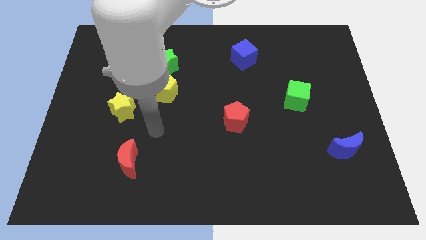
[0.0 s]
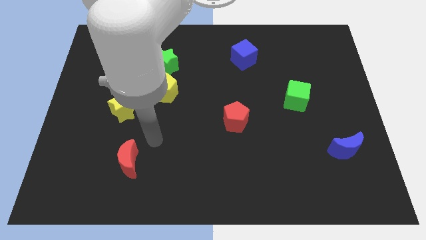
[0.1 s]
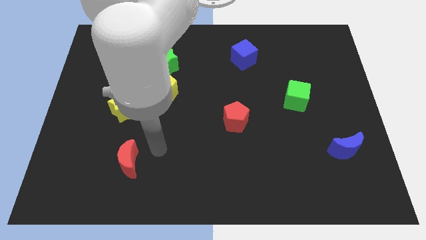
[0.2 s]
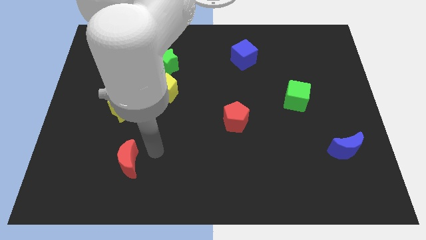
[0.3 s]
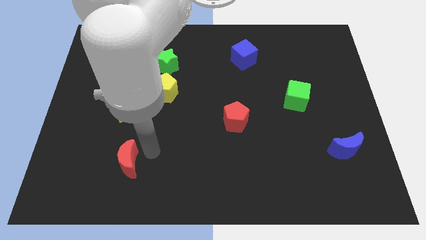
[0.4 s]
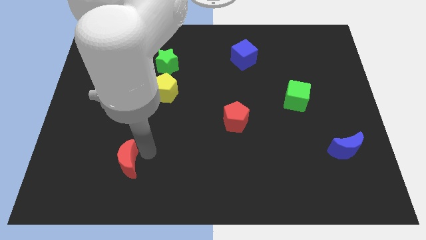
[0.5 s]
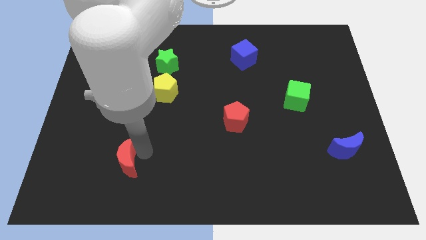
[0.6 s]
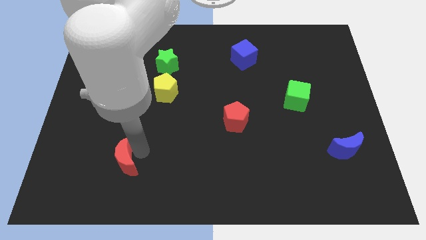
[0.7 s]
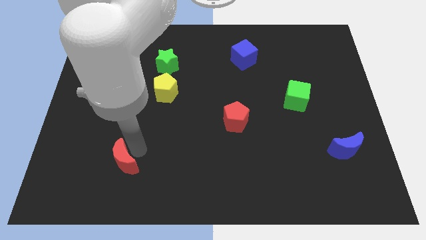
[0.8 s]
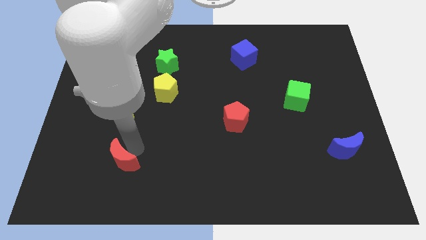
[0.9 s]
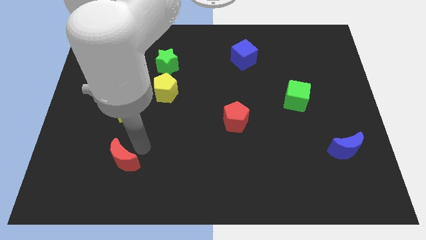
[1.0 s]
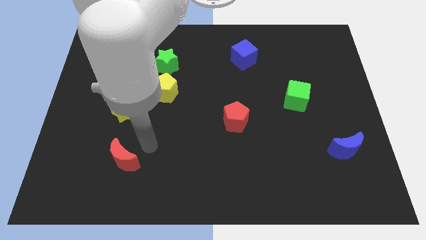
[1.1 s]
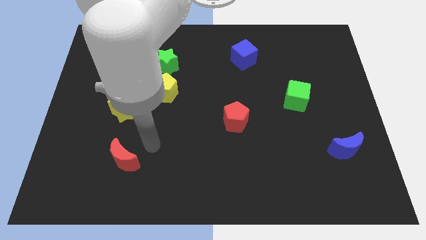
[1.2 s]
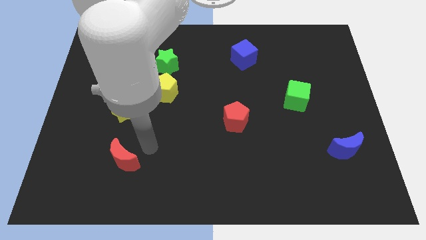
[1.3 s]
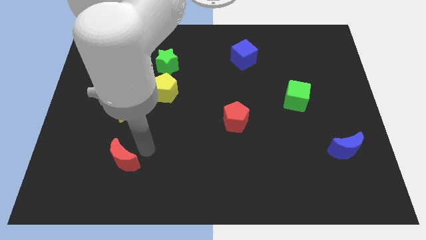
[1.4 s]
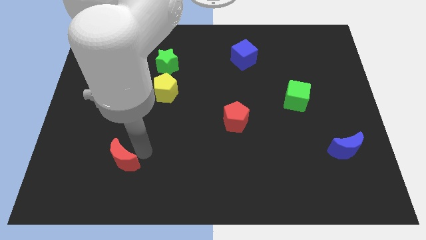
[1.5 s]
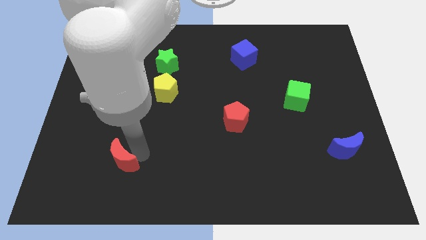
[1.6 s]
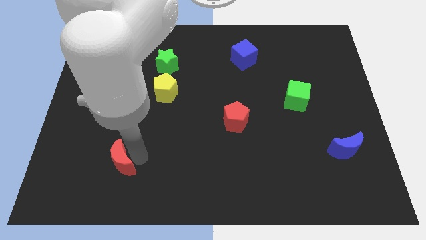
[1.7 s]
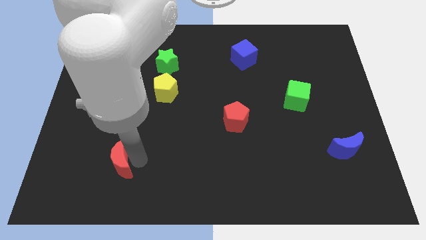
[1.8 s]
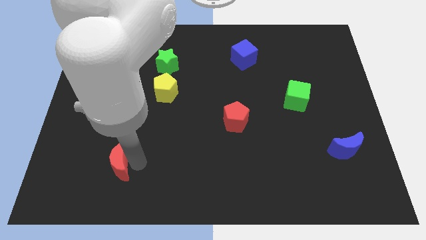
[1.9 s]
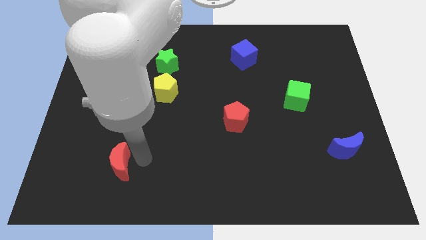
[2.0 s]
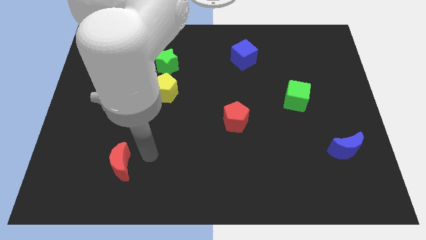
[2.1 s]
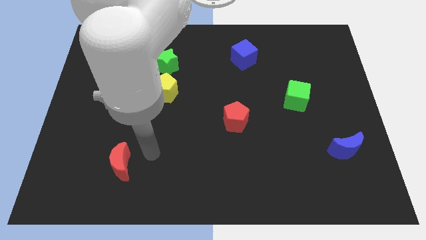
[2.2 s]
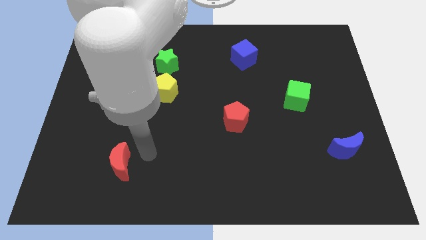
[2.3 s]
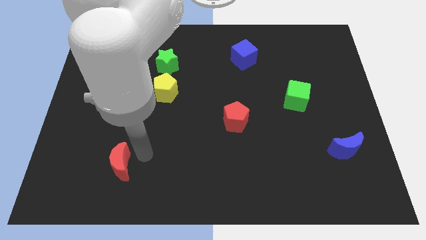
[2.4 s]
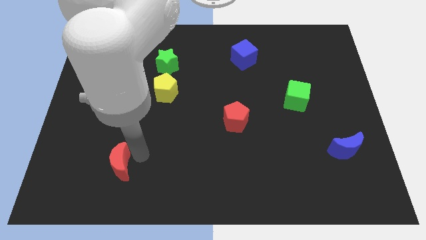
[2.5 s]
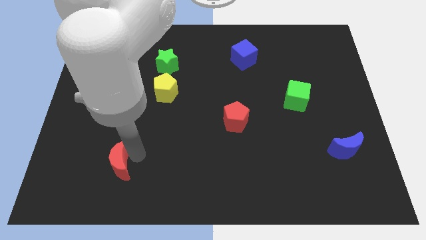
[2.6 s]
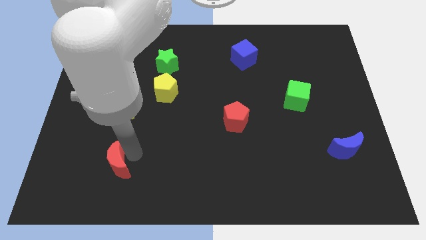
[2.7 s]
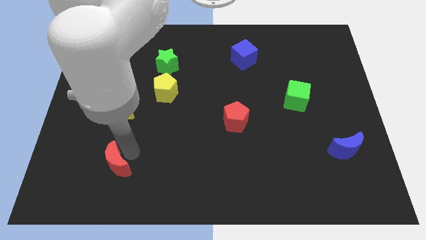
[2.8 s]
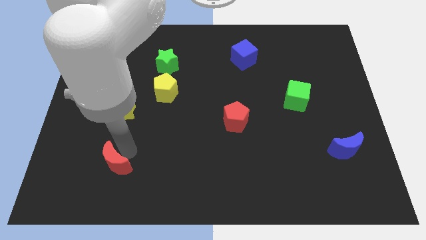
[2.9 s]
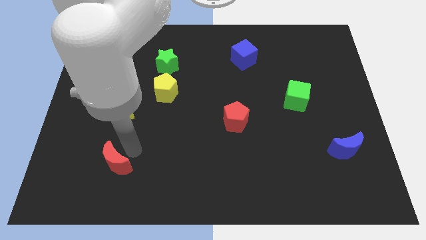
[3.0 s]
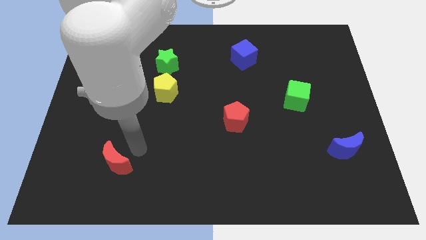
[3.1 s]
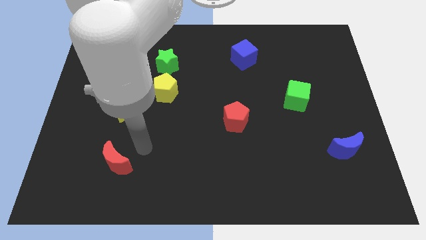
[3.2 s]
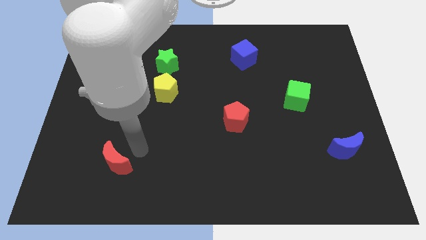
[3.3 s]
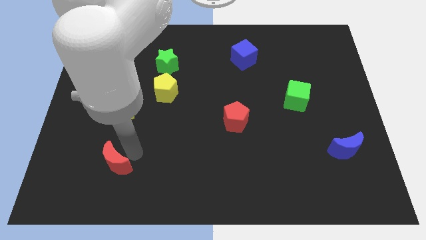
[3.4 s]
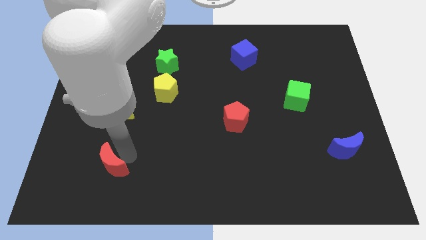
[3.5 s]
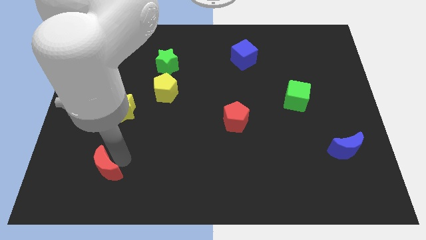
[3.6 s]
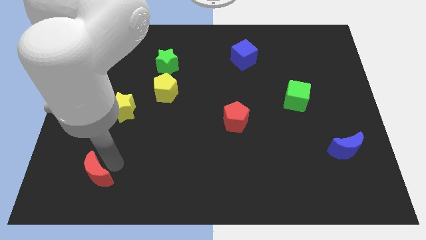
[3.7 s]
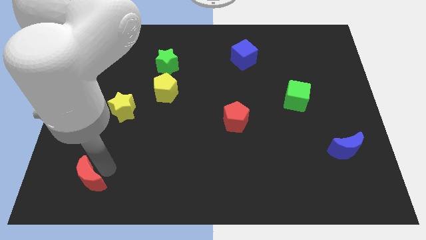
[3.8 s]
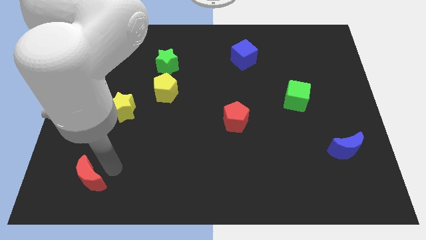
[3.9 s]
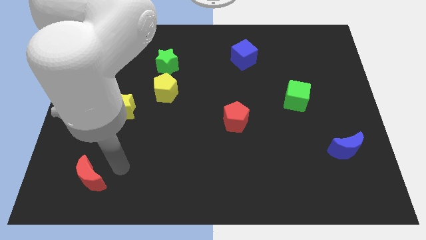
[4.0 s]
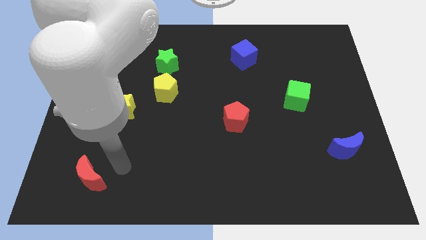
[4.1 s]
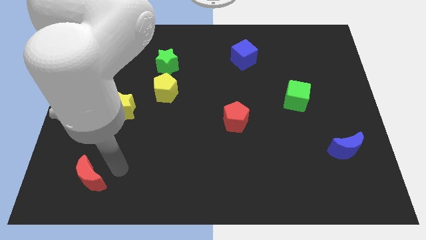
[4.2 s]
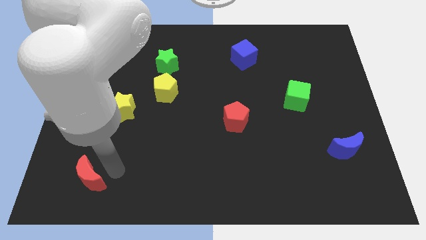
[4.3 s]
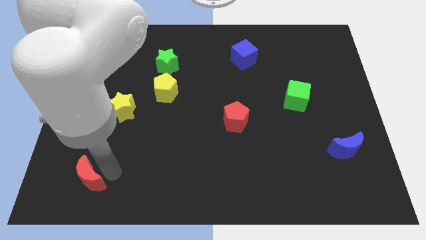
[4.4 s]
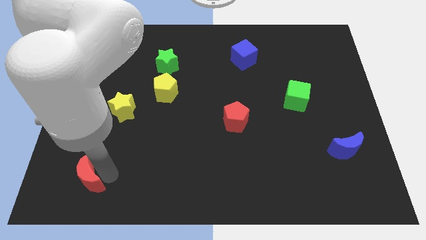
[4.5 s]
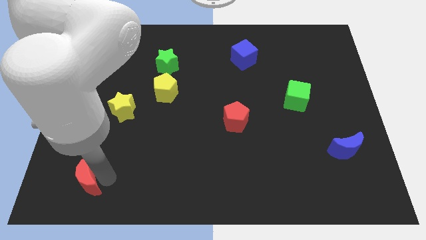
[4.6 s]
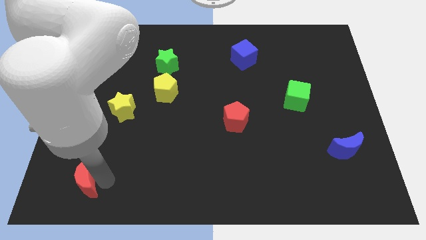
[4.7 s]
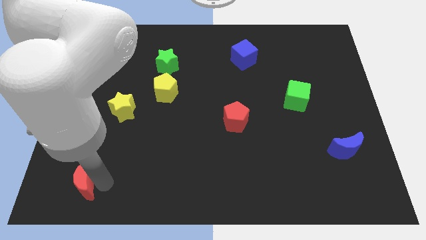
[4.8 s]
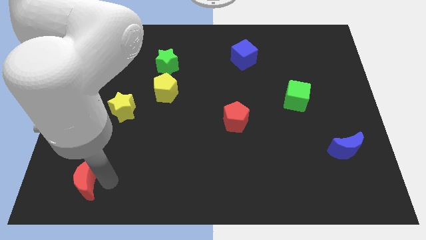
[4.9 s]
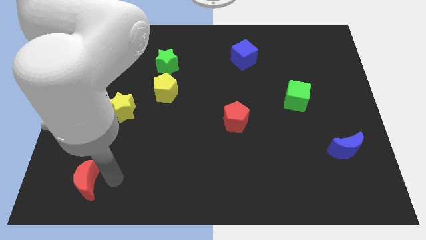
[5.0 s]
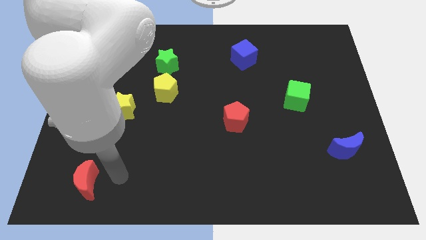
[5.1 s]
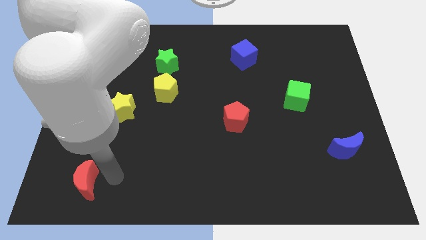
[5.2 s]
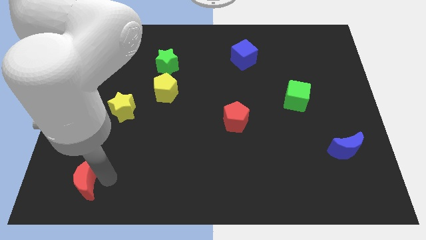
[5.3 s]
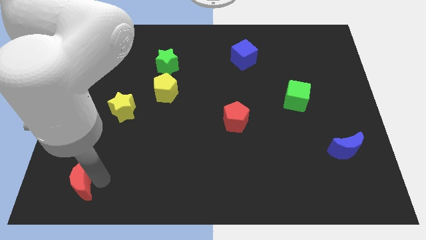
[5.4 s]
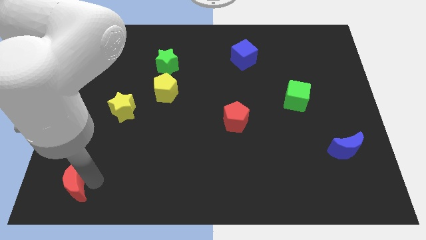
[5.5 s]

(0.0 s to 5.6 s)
move the red moon to the bottom left corner

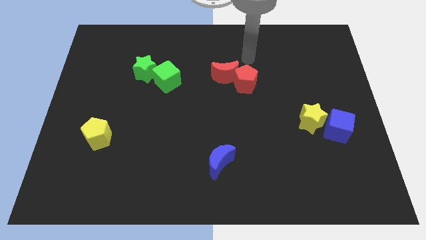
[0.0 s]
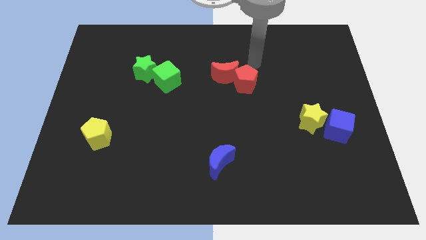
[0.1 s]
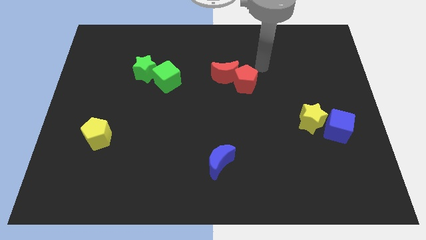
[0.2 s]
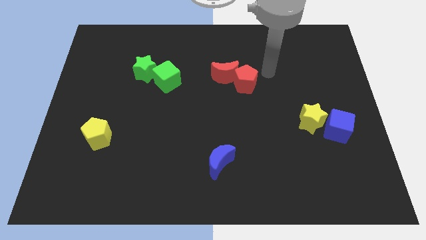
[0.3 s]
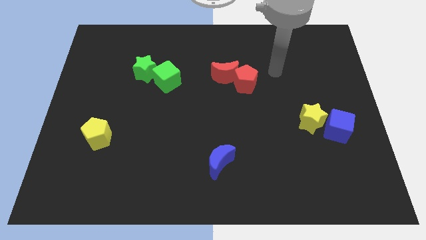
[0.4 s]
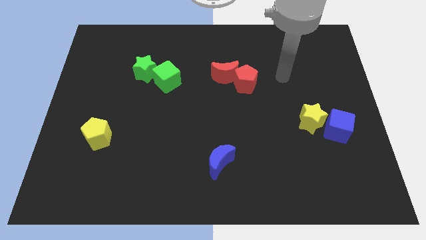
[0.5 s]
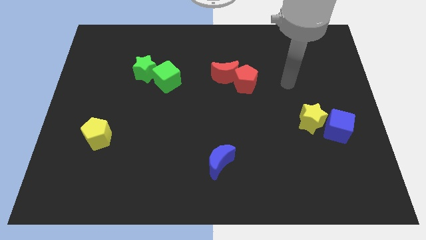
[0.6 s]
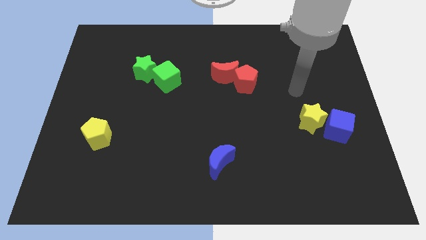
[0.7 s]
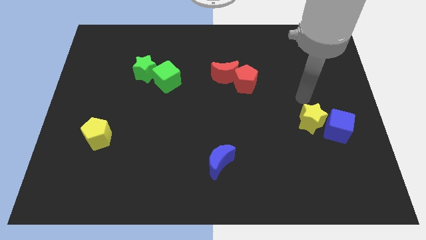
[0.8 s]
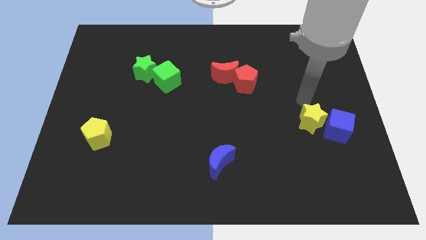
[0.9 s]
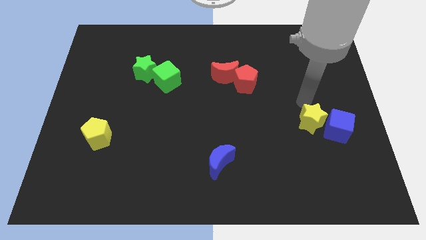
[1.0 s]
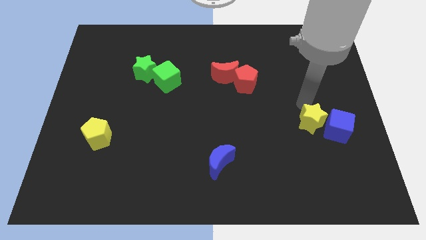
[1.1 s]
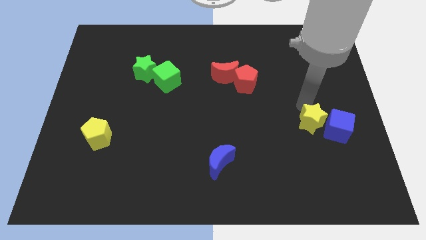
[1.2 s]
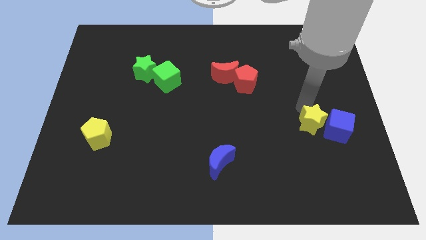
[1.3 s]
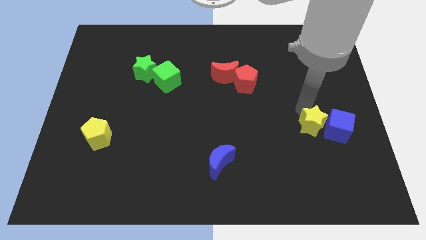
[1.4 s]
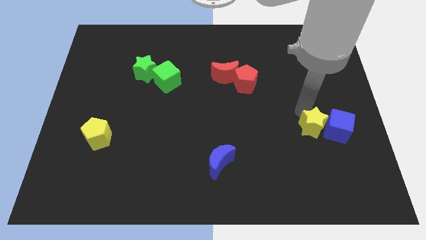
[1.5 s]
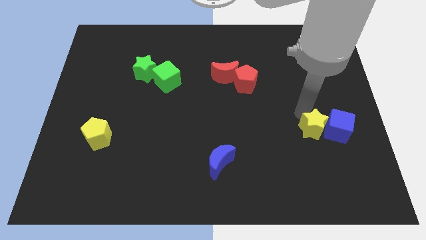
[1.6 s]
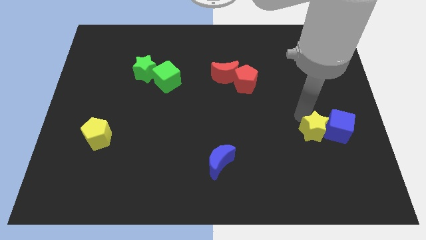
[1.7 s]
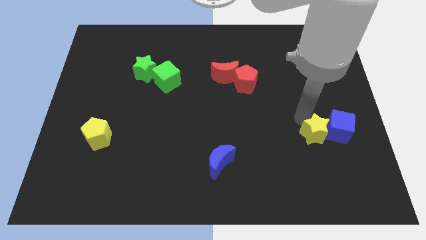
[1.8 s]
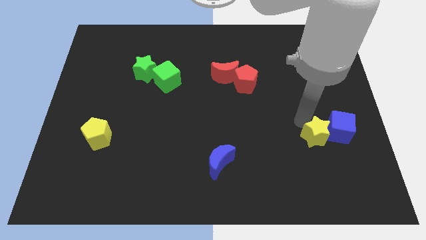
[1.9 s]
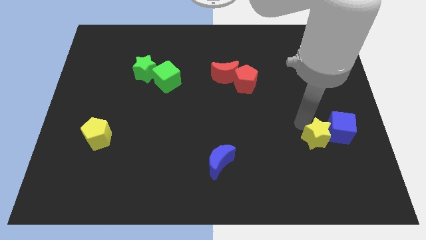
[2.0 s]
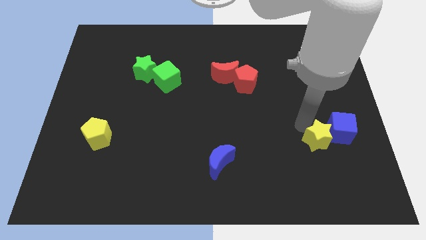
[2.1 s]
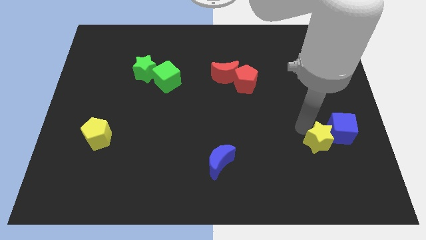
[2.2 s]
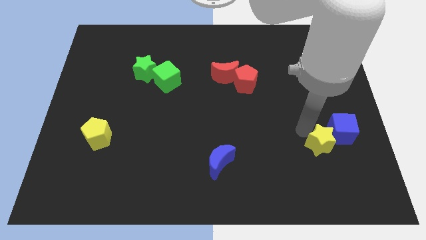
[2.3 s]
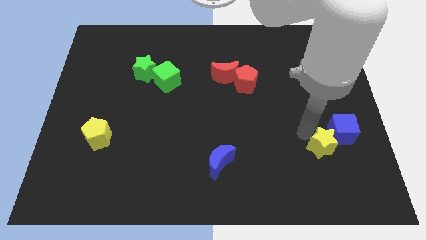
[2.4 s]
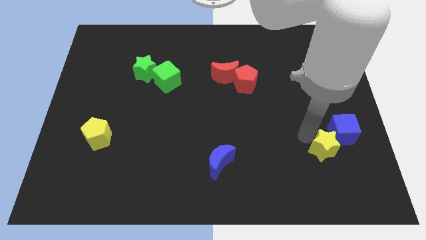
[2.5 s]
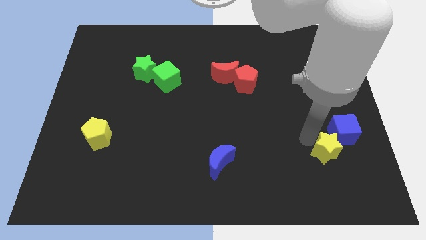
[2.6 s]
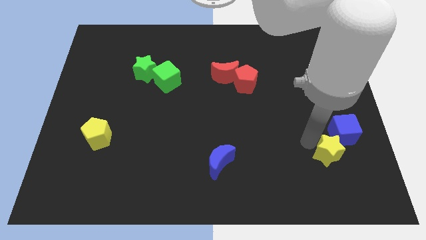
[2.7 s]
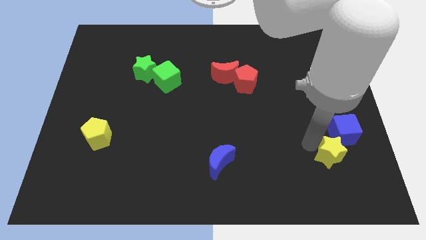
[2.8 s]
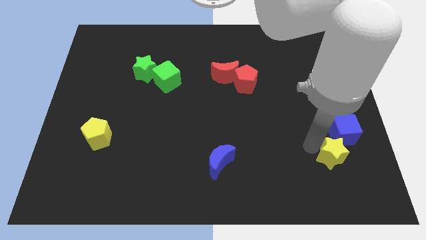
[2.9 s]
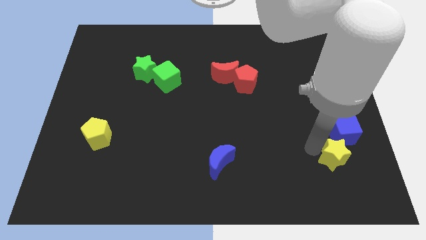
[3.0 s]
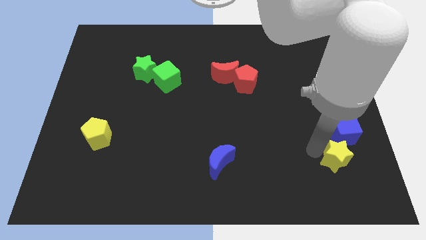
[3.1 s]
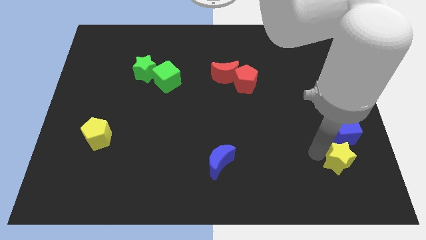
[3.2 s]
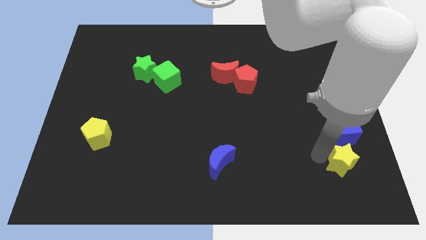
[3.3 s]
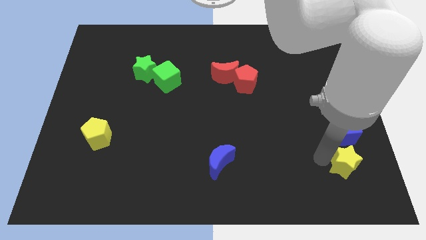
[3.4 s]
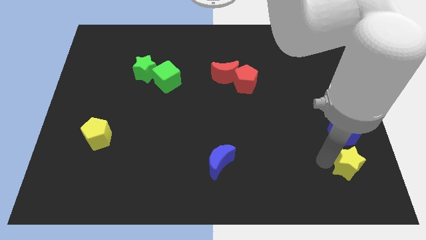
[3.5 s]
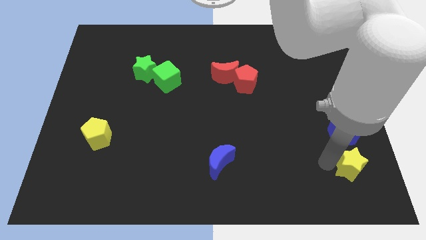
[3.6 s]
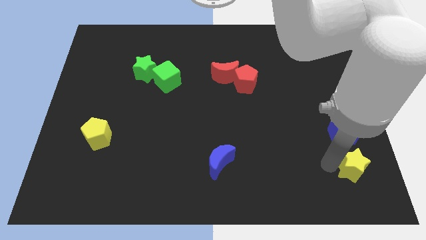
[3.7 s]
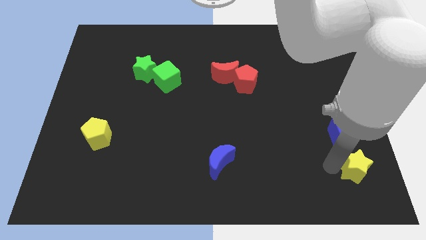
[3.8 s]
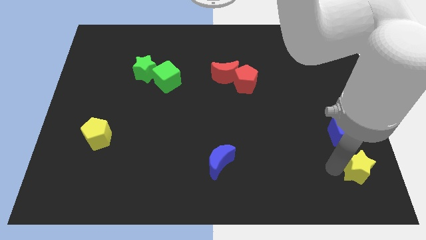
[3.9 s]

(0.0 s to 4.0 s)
move the yellow star to the bottom right
